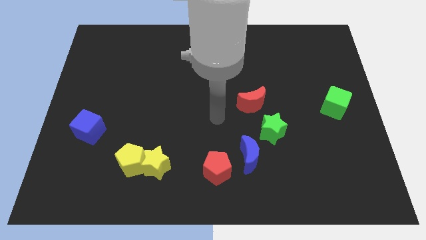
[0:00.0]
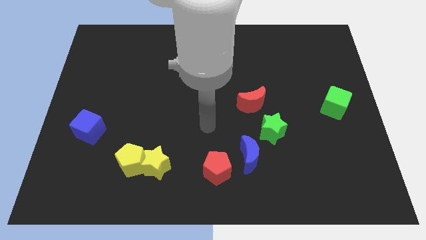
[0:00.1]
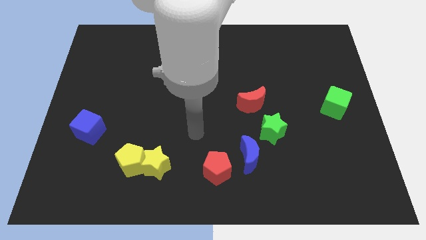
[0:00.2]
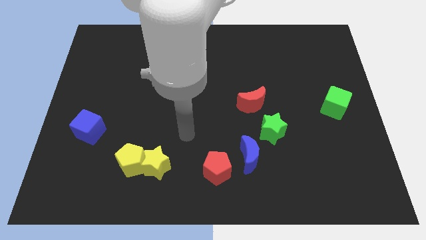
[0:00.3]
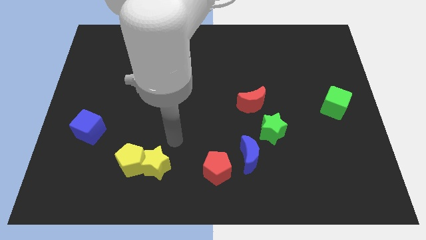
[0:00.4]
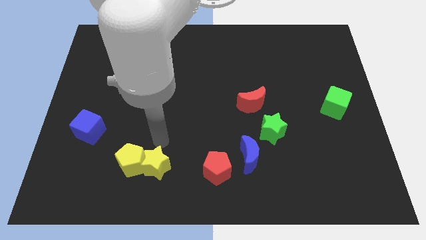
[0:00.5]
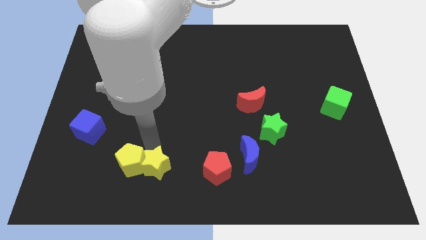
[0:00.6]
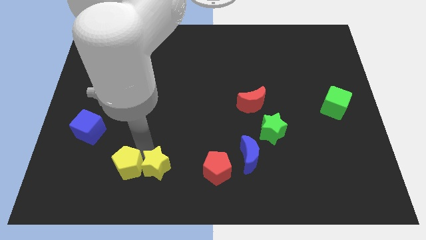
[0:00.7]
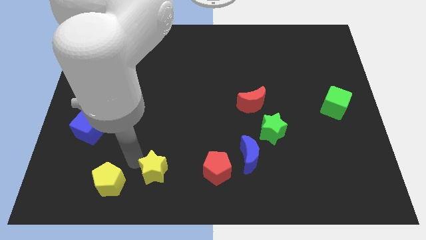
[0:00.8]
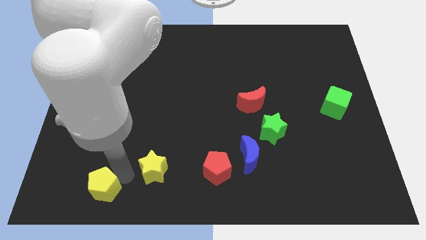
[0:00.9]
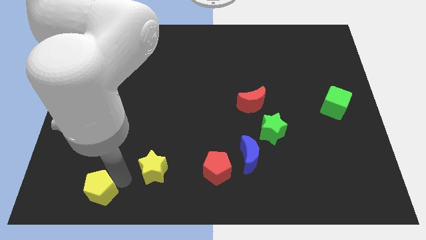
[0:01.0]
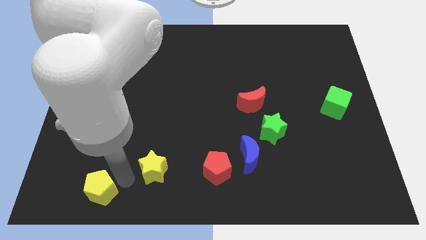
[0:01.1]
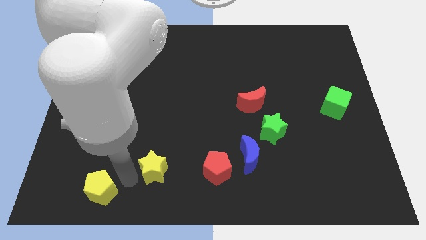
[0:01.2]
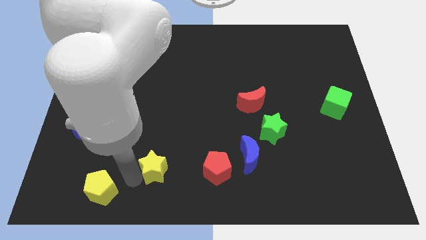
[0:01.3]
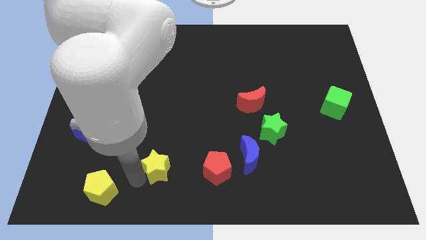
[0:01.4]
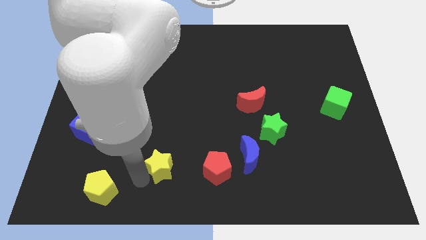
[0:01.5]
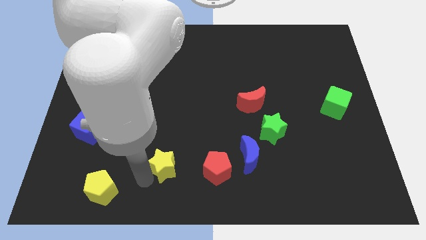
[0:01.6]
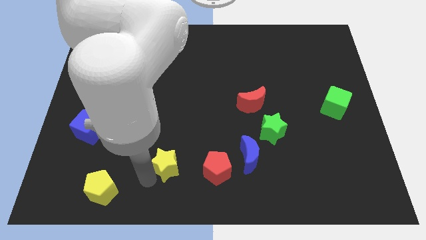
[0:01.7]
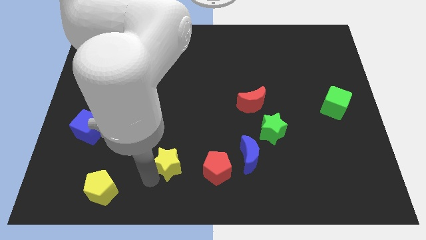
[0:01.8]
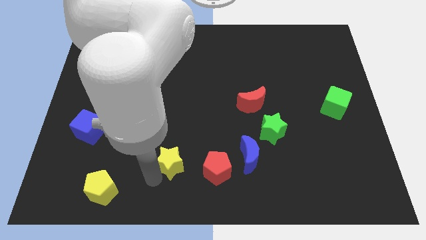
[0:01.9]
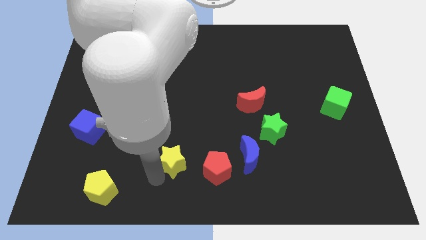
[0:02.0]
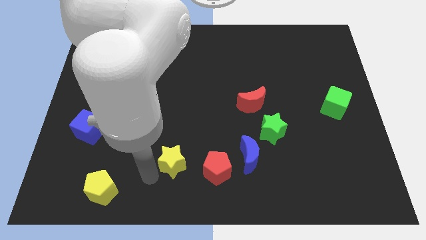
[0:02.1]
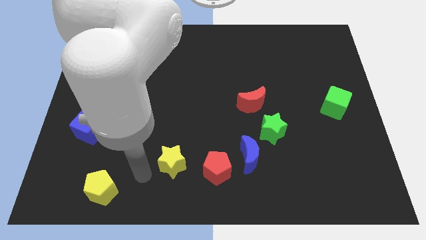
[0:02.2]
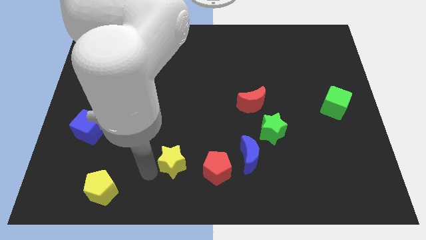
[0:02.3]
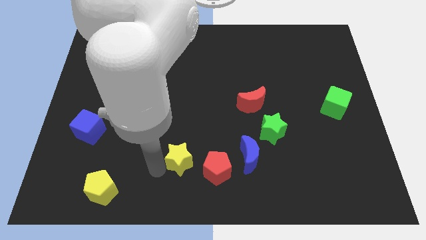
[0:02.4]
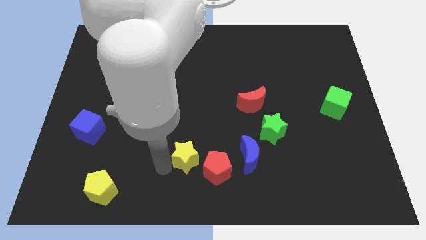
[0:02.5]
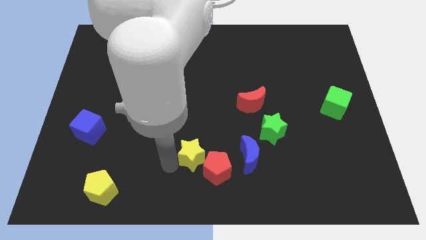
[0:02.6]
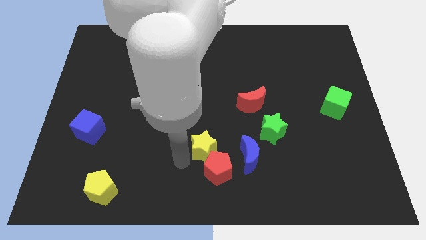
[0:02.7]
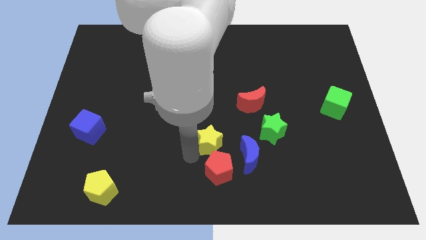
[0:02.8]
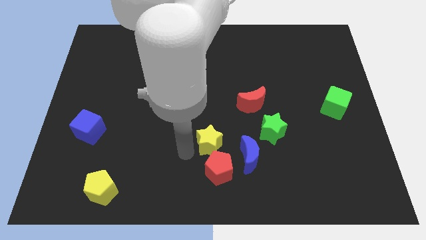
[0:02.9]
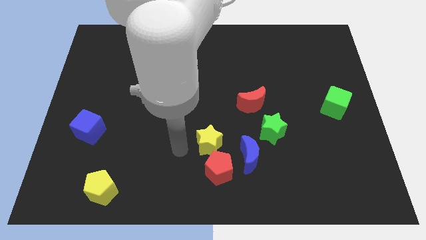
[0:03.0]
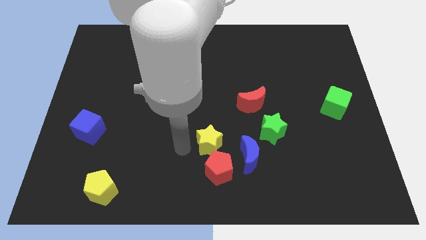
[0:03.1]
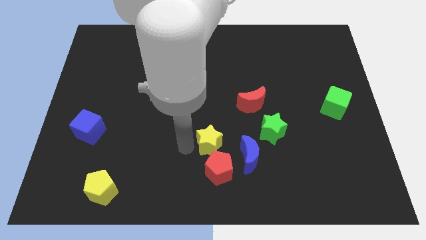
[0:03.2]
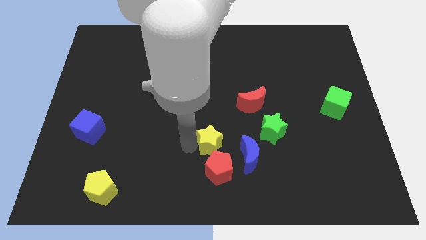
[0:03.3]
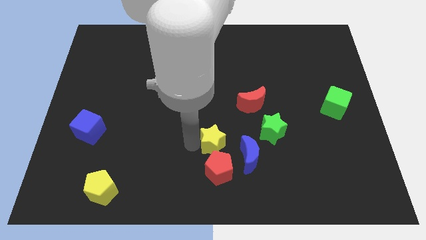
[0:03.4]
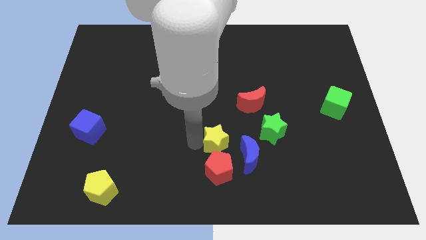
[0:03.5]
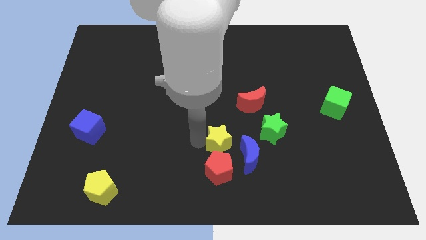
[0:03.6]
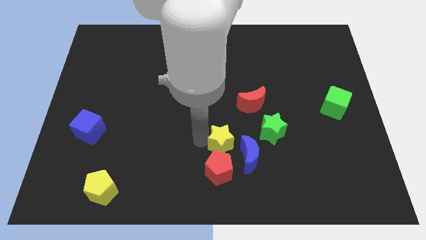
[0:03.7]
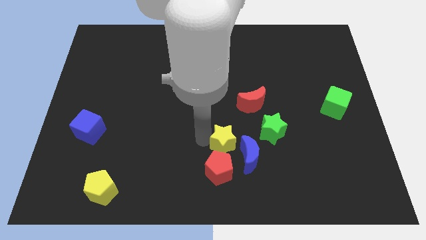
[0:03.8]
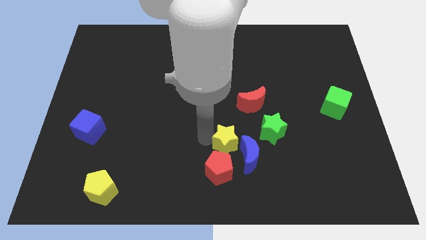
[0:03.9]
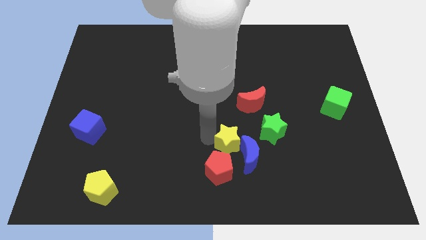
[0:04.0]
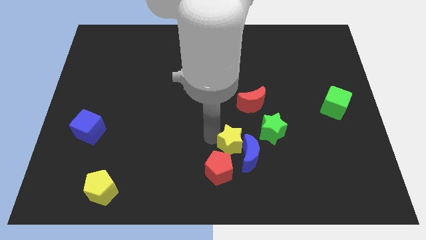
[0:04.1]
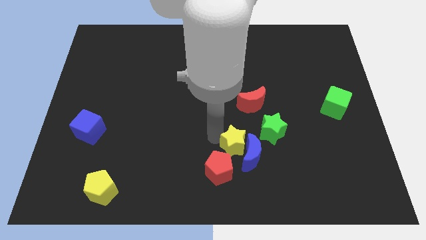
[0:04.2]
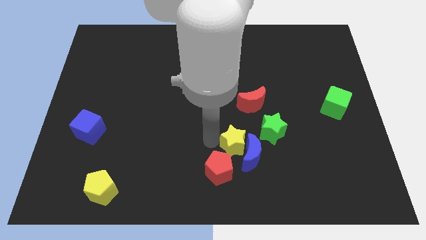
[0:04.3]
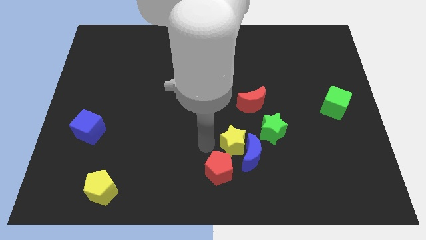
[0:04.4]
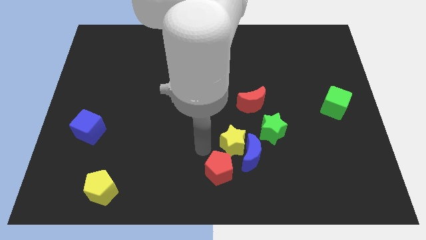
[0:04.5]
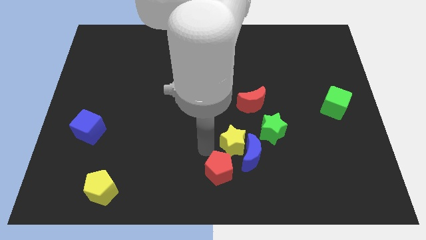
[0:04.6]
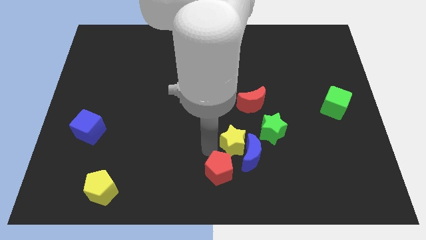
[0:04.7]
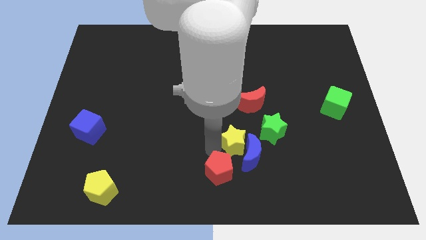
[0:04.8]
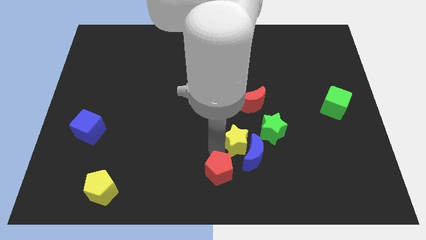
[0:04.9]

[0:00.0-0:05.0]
put the yellow star to the bottom of the red moon

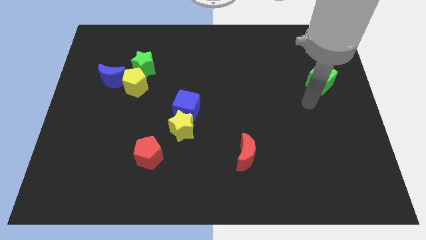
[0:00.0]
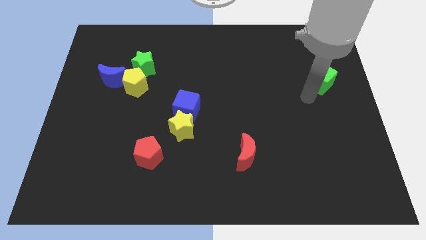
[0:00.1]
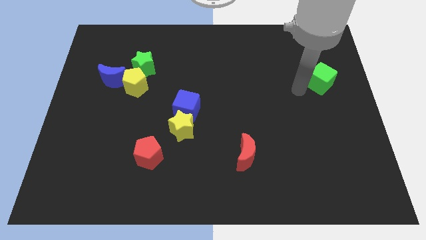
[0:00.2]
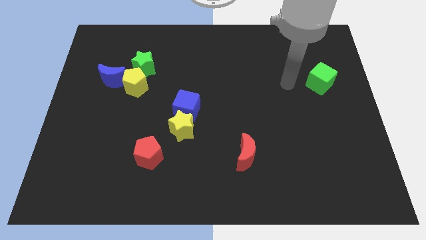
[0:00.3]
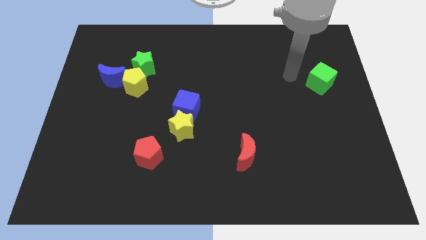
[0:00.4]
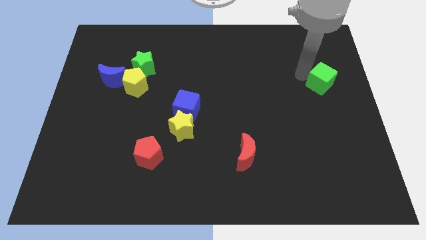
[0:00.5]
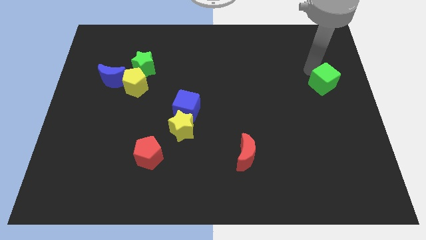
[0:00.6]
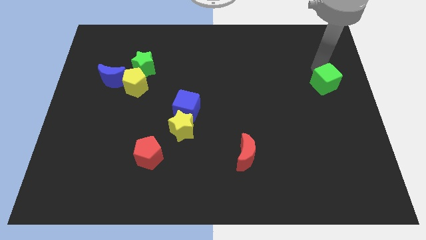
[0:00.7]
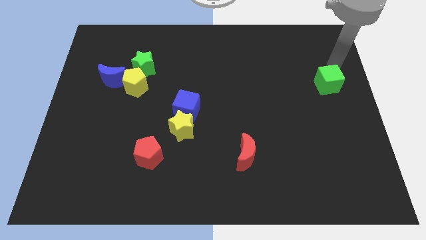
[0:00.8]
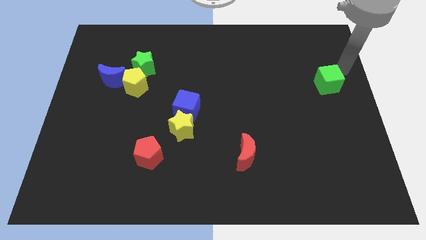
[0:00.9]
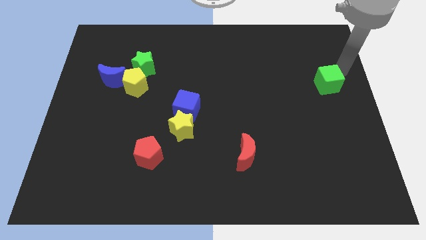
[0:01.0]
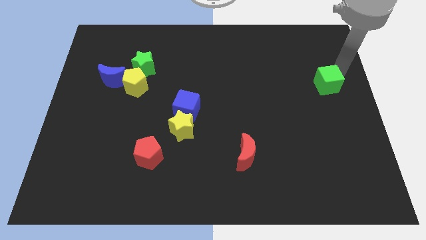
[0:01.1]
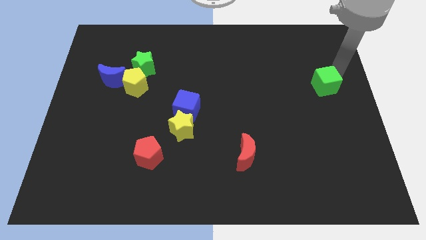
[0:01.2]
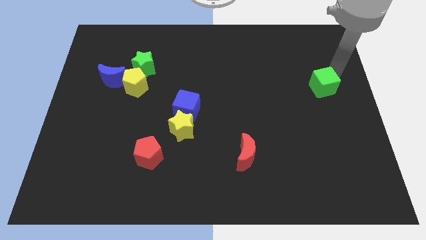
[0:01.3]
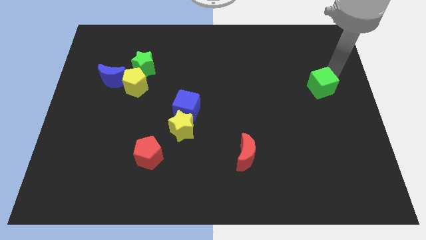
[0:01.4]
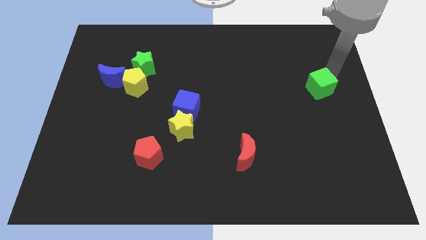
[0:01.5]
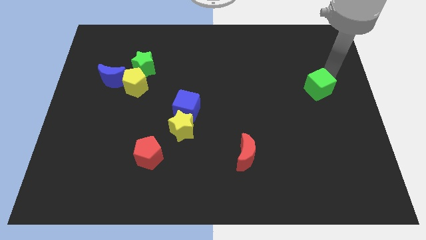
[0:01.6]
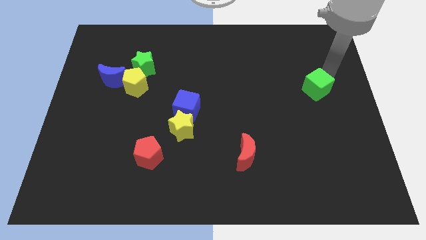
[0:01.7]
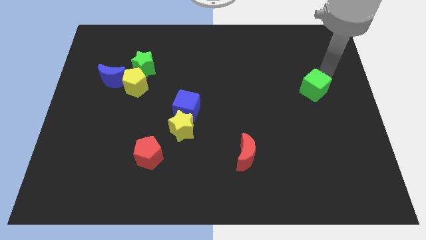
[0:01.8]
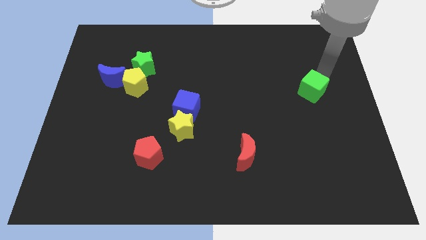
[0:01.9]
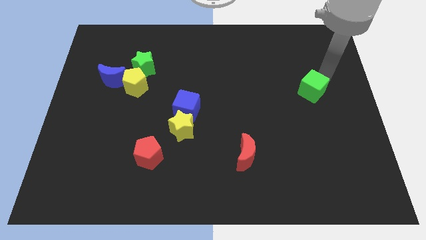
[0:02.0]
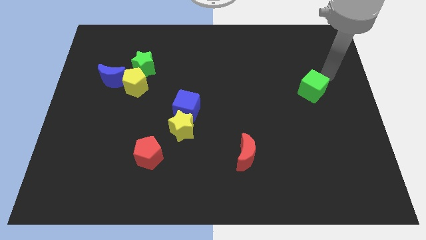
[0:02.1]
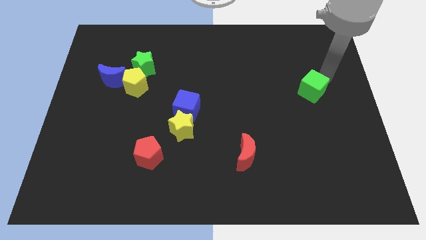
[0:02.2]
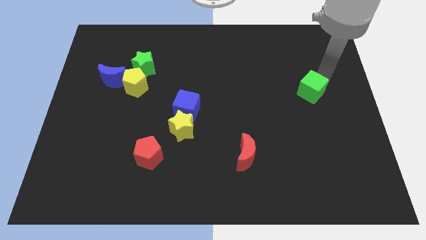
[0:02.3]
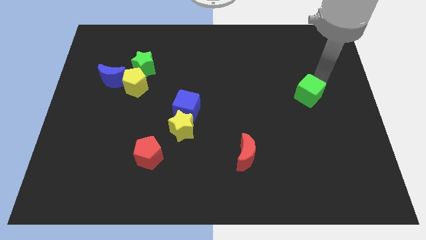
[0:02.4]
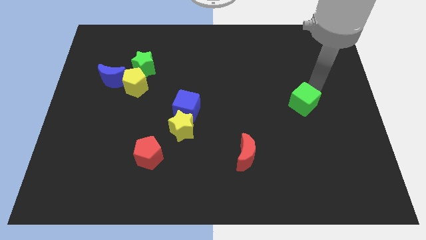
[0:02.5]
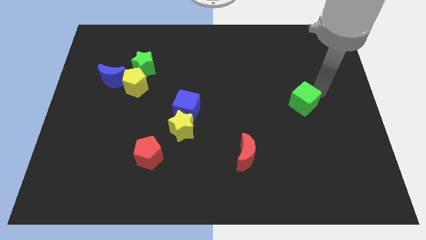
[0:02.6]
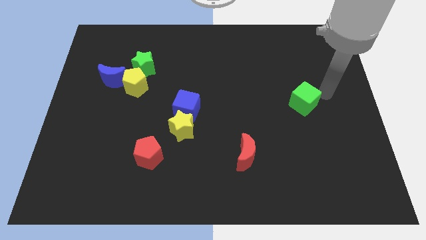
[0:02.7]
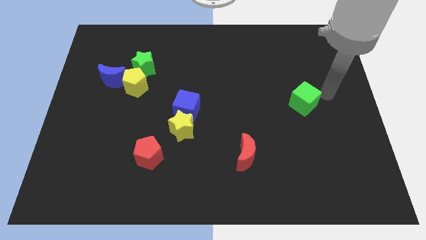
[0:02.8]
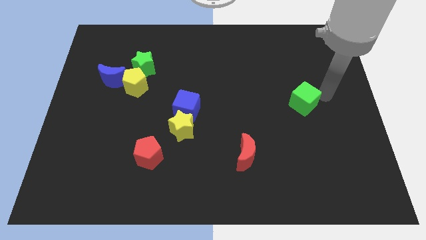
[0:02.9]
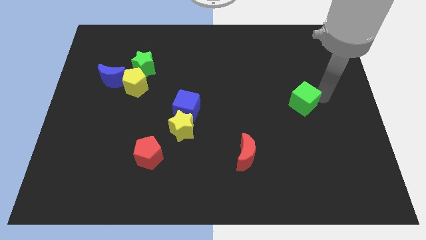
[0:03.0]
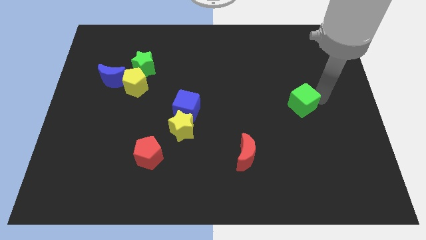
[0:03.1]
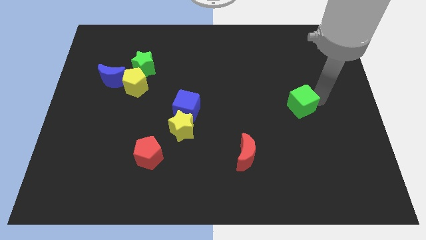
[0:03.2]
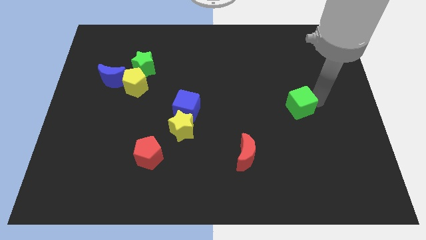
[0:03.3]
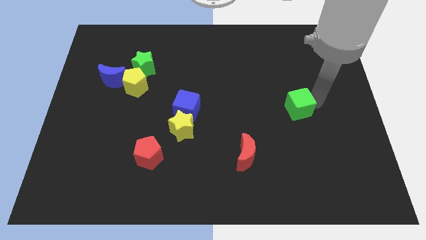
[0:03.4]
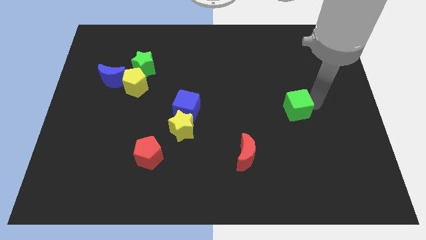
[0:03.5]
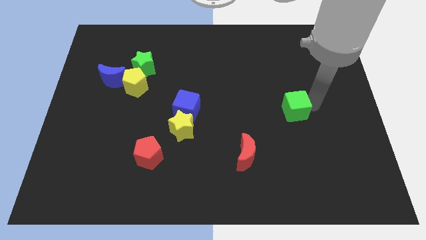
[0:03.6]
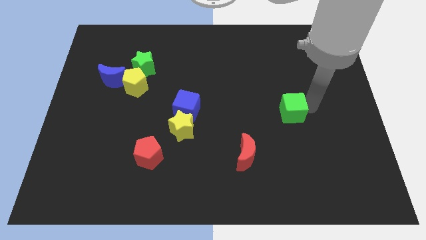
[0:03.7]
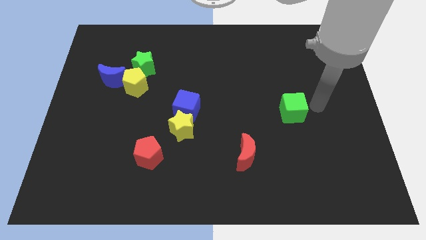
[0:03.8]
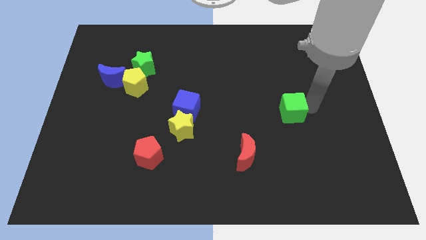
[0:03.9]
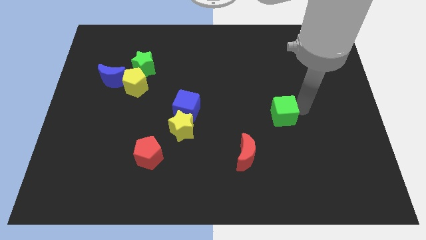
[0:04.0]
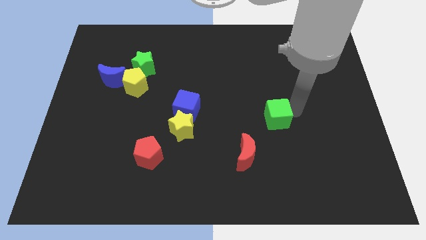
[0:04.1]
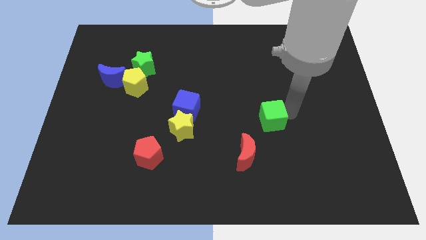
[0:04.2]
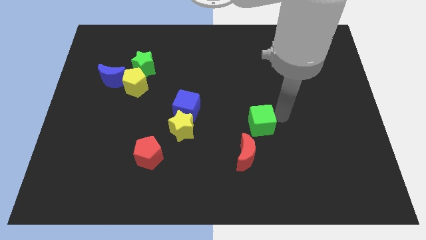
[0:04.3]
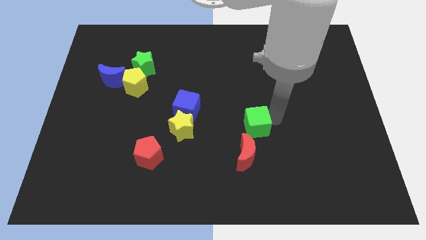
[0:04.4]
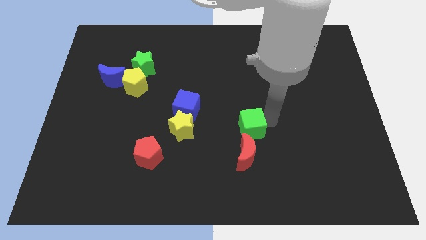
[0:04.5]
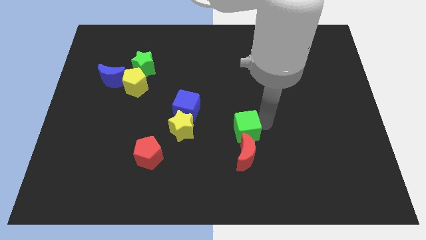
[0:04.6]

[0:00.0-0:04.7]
slide the green cube to the top left side of the red moon
